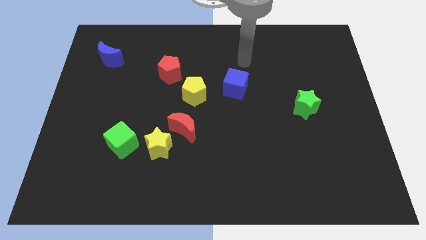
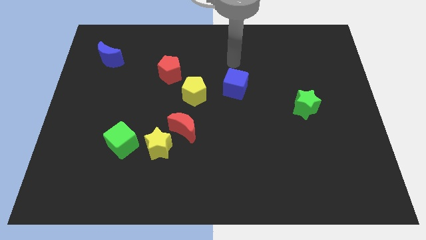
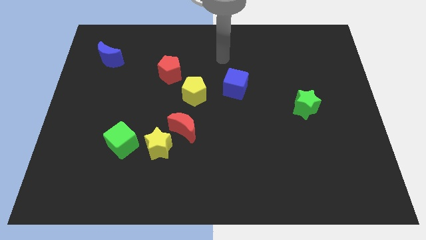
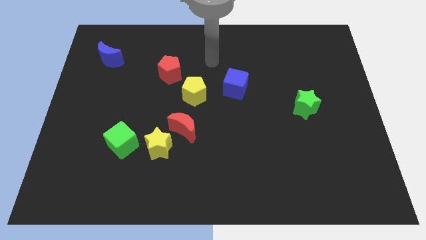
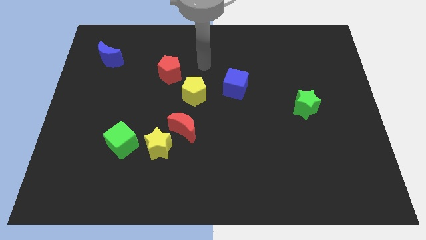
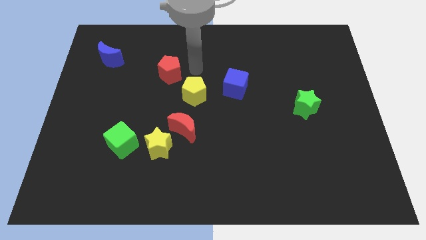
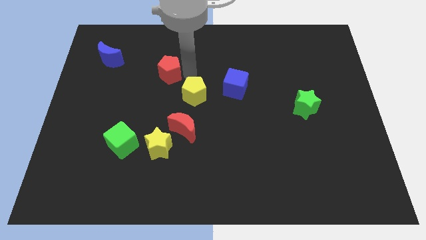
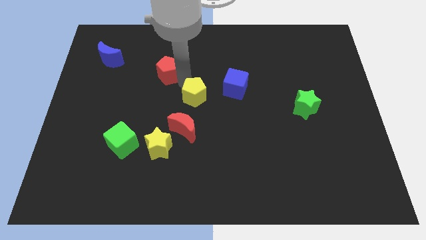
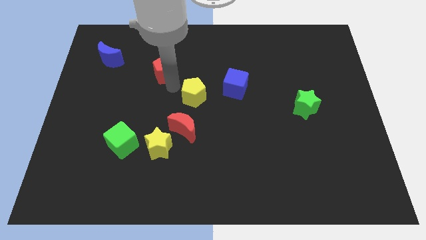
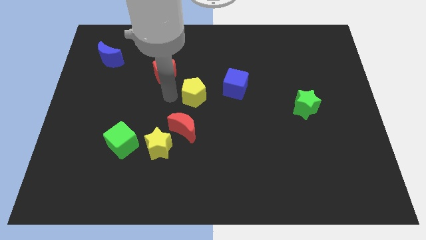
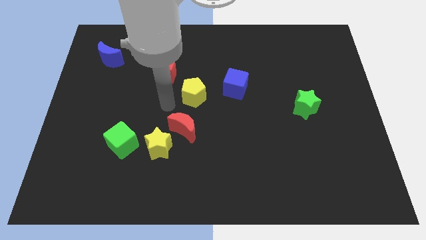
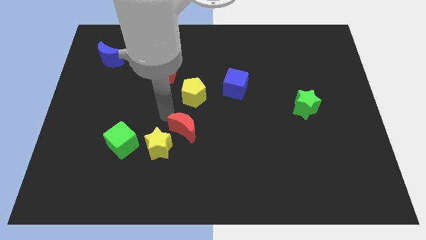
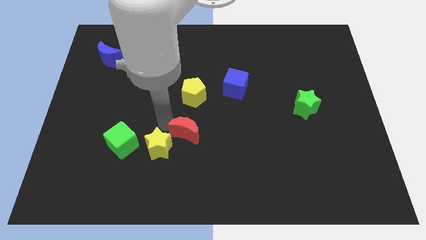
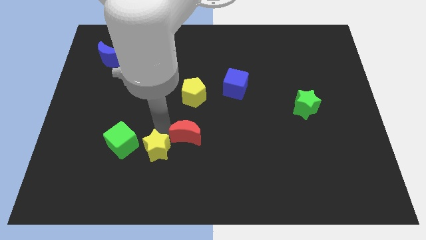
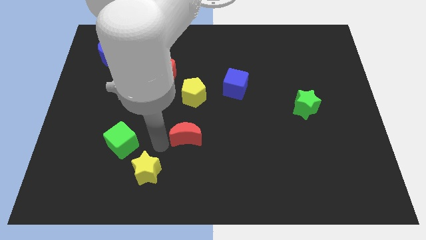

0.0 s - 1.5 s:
separate the red moon from the yellow star

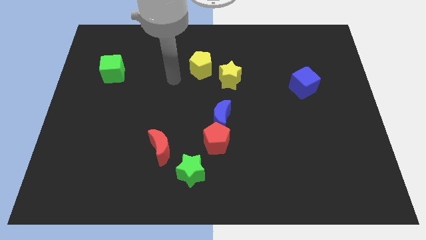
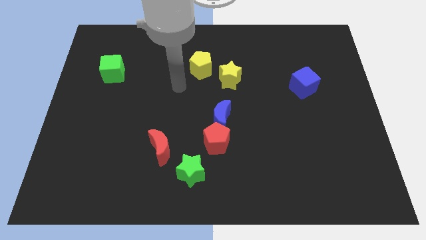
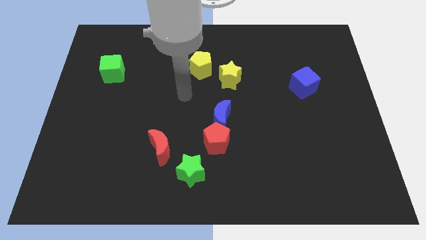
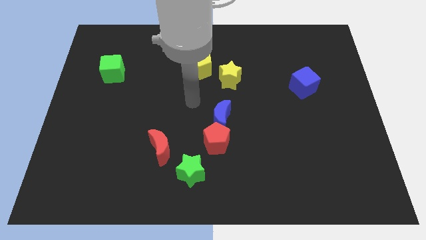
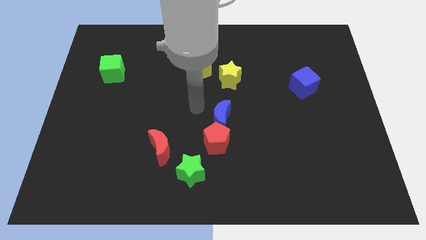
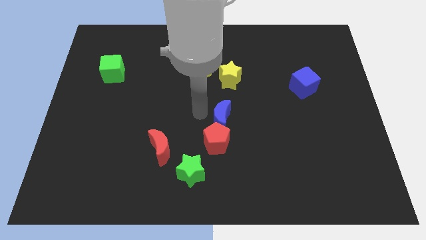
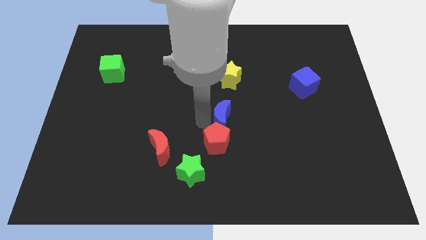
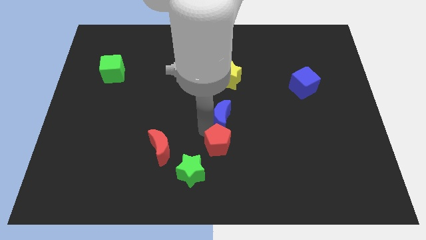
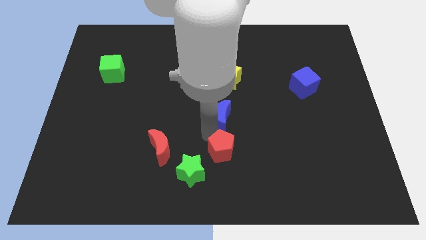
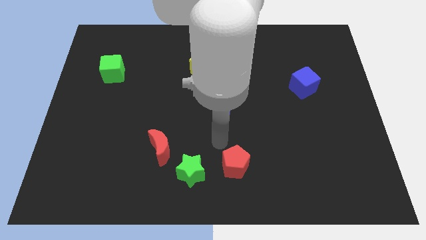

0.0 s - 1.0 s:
move the blue moon away from the red pentagon

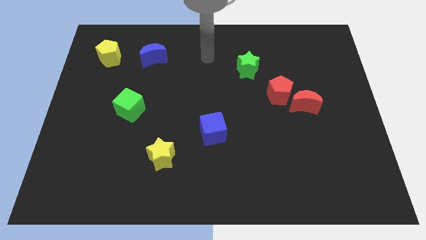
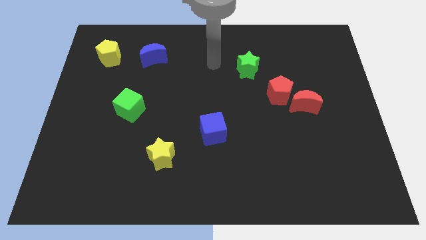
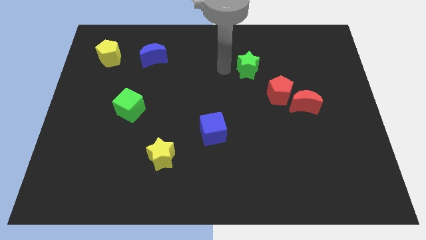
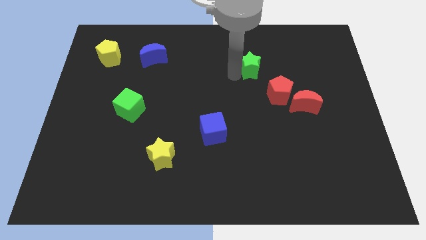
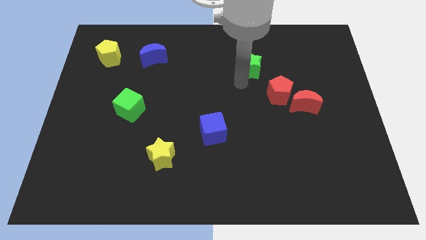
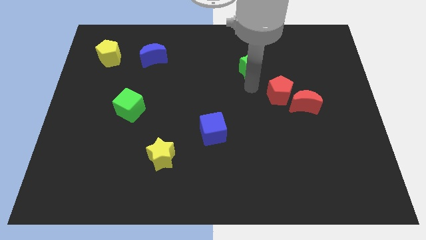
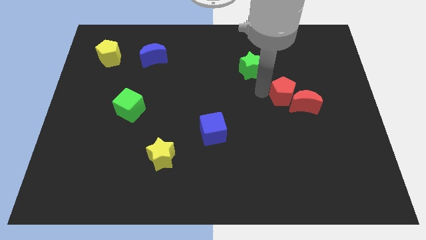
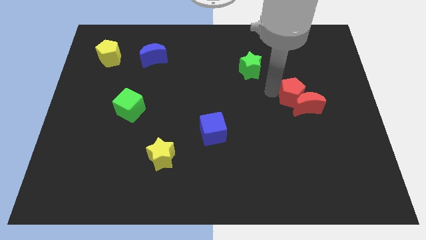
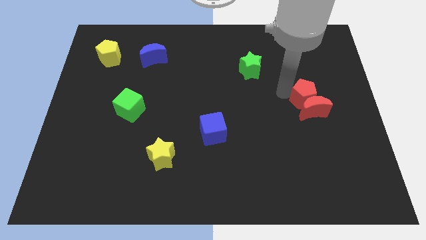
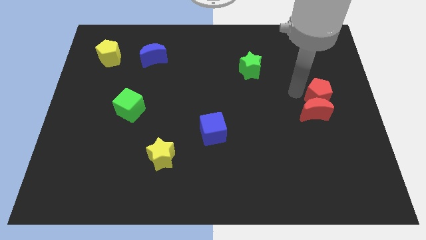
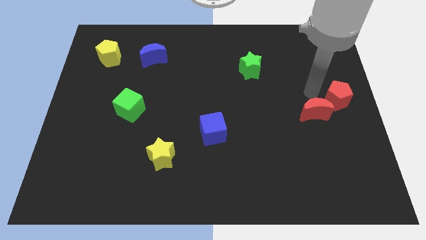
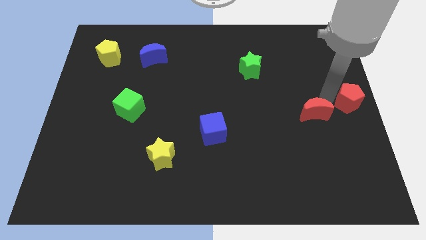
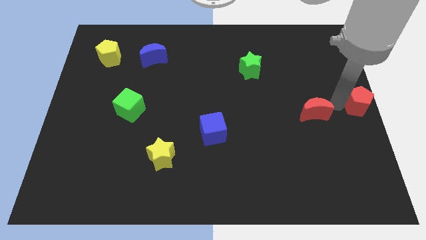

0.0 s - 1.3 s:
move the red moon away from the red pentagon

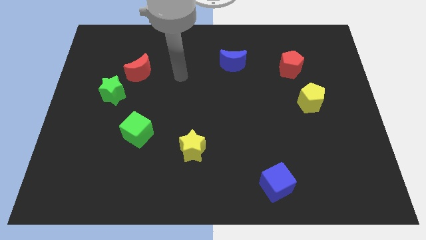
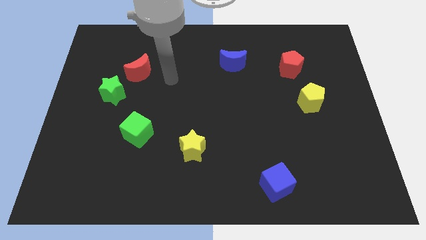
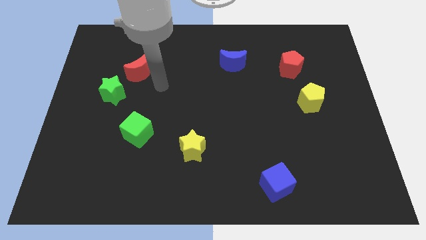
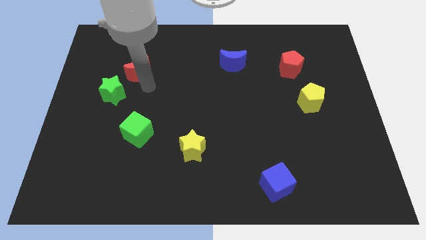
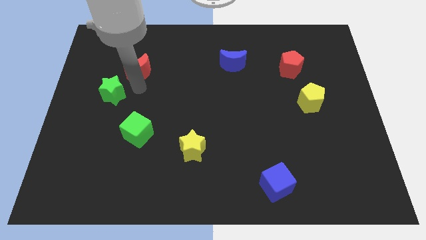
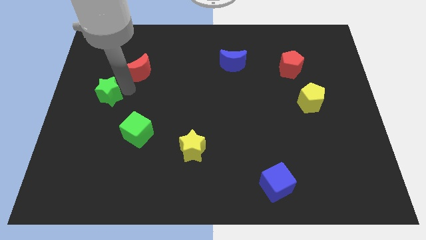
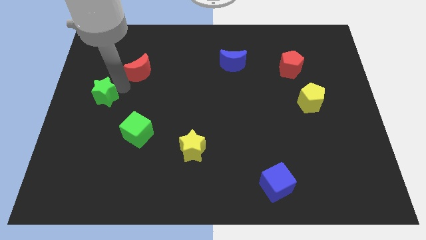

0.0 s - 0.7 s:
pull the red moon apart from the green star

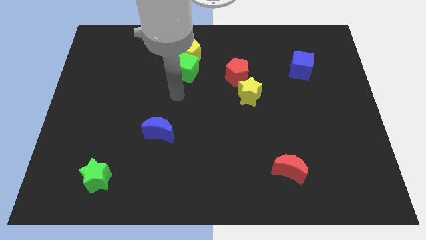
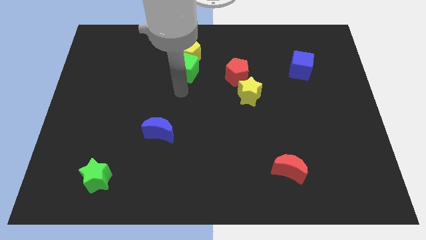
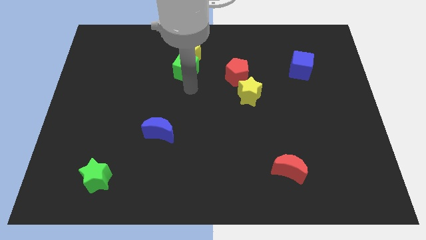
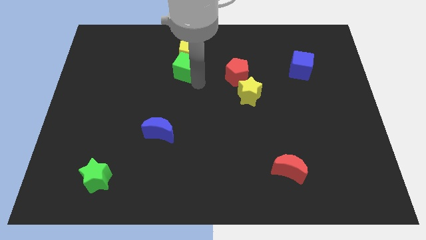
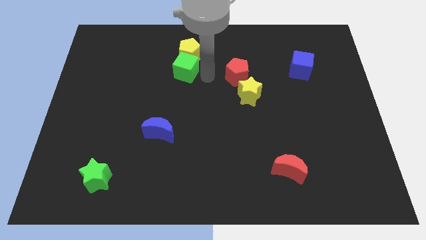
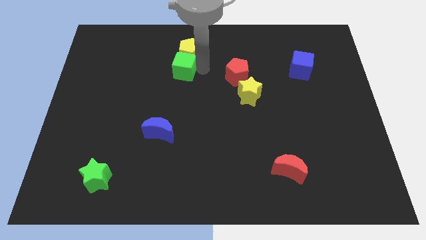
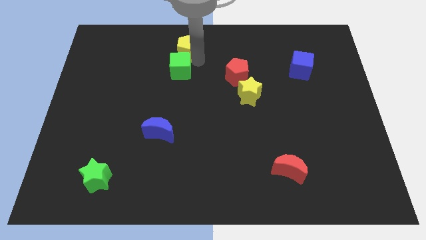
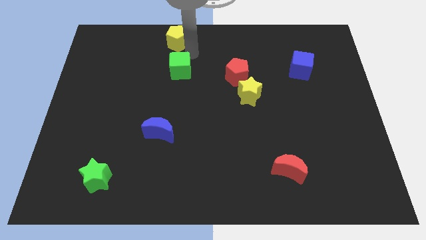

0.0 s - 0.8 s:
separate the green cube from the yellow pentagon

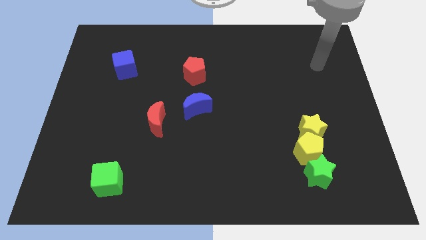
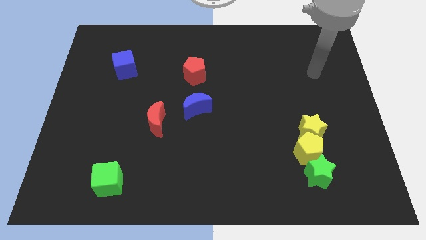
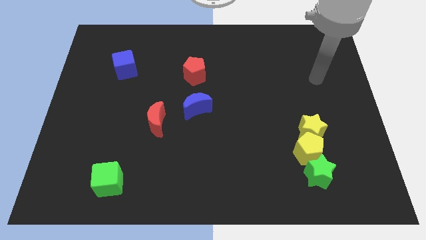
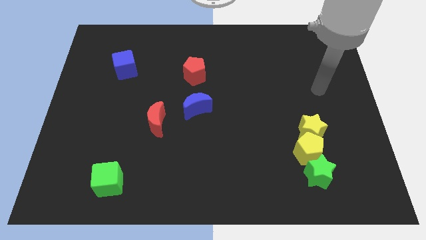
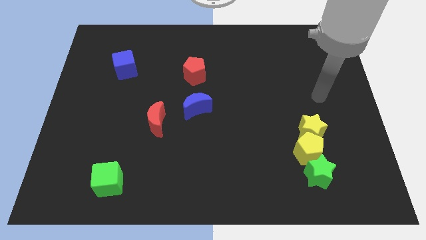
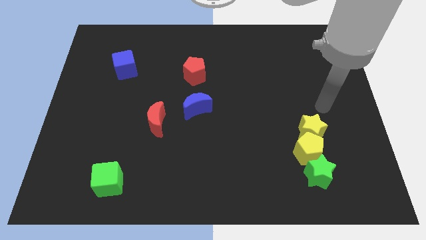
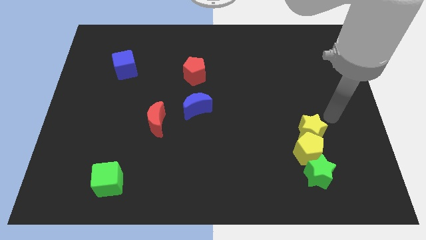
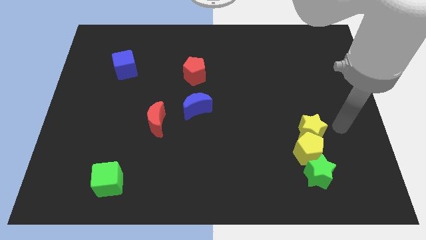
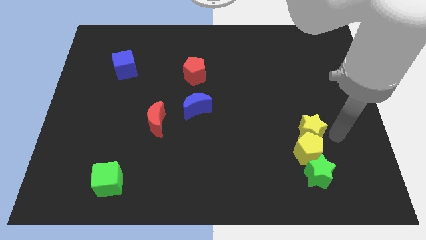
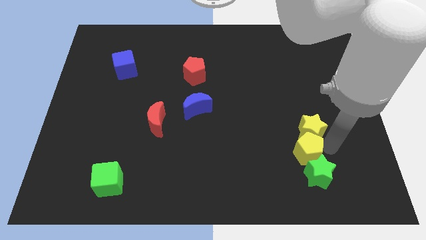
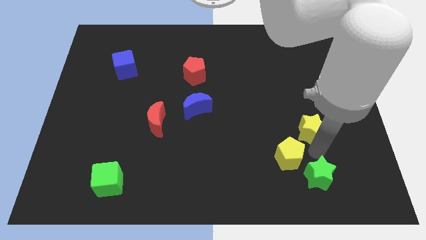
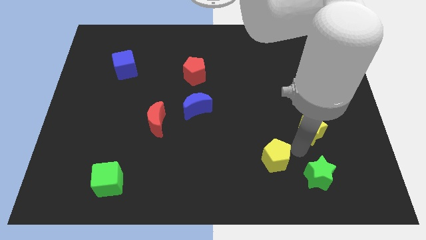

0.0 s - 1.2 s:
move the yellow star away from the yellow pentagon

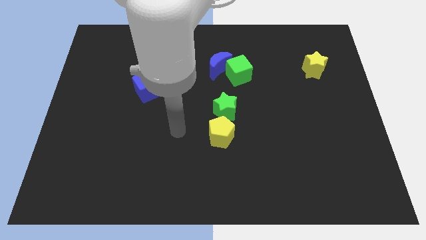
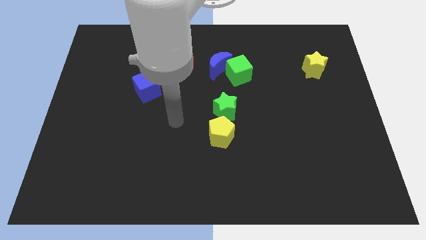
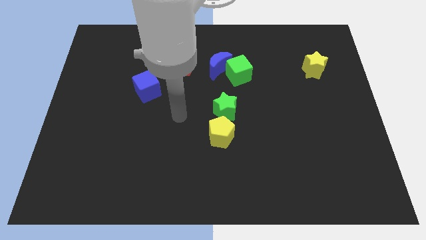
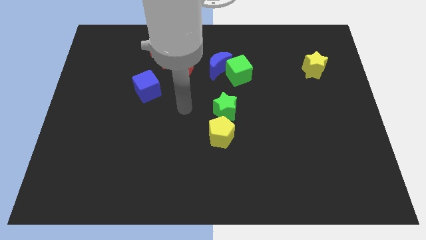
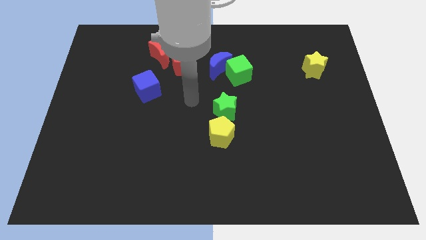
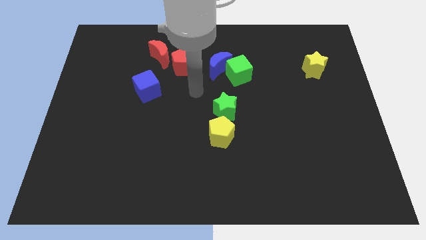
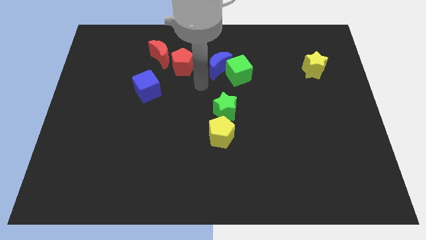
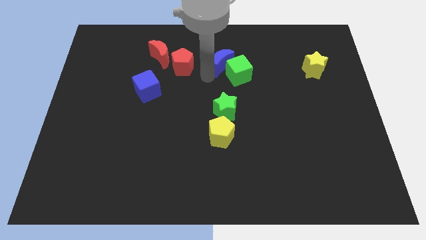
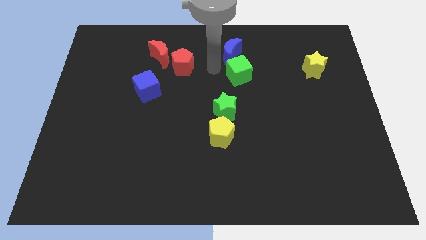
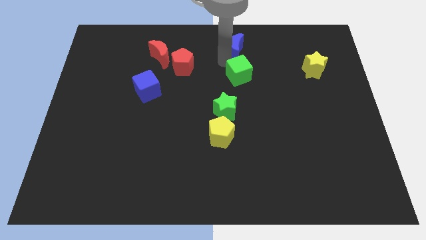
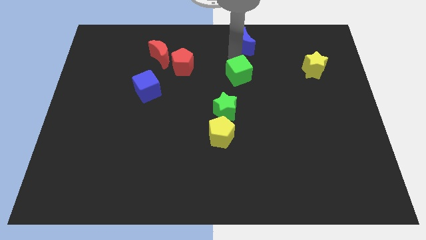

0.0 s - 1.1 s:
move the green cube away from the blue moon

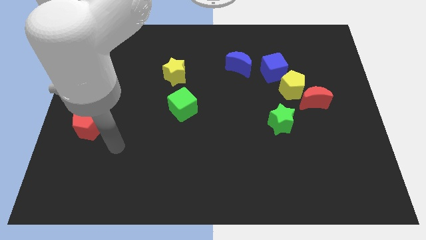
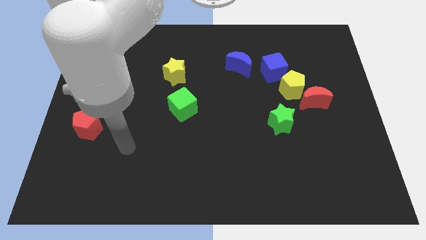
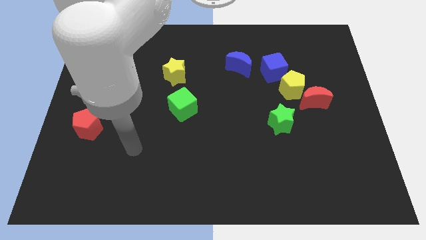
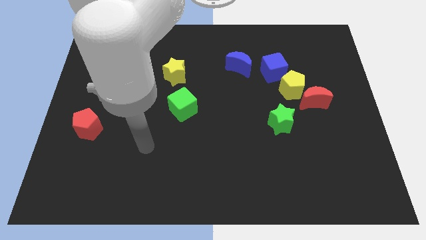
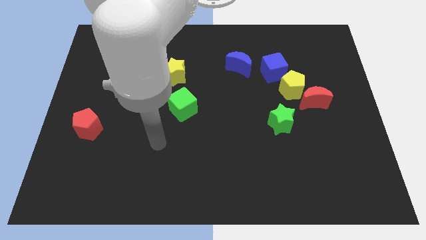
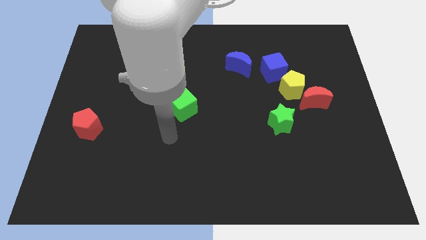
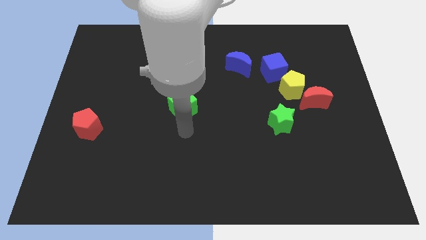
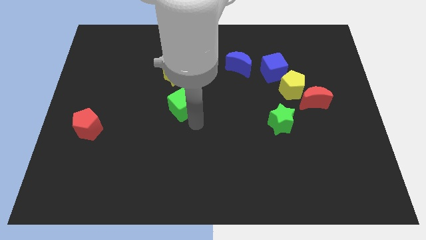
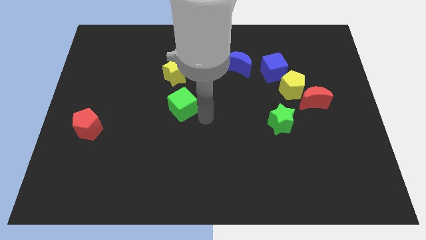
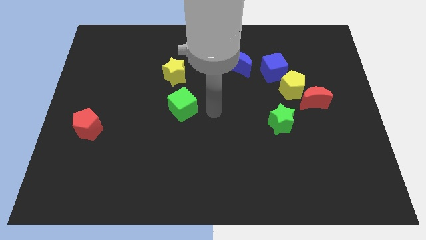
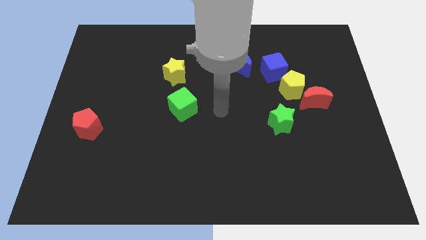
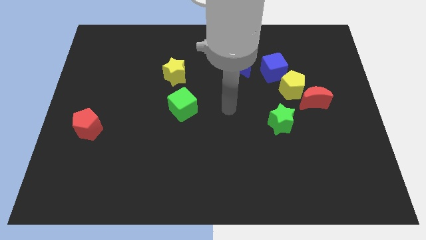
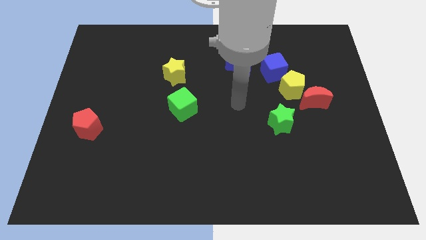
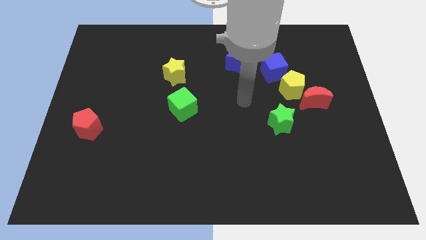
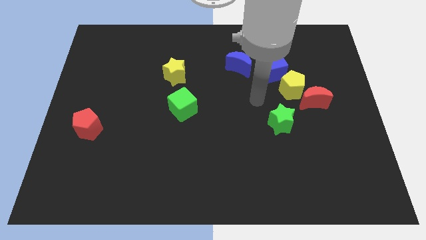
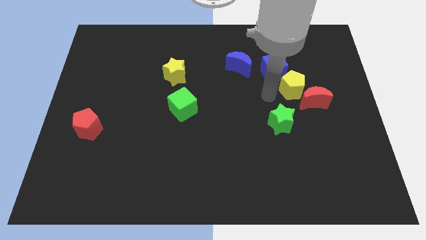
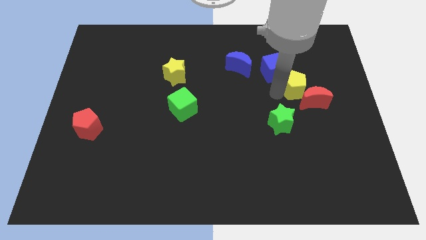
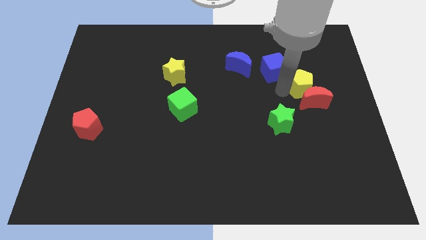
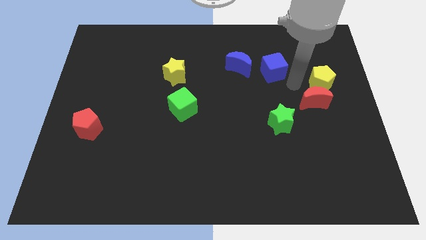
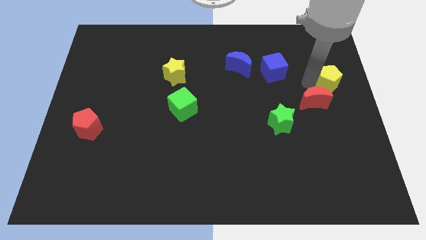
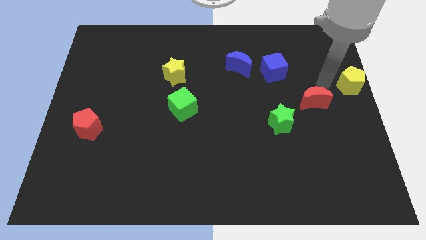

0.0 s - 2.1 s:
separate the red moon from the yellow pentagon
